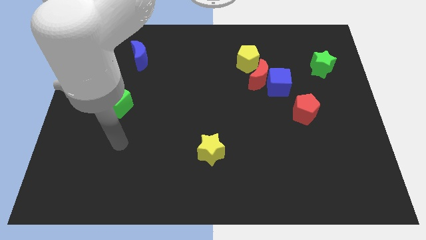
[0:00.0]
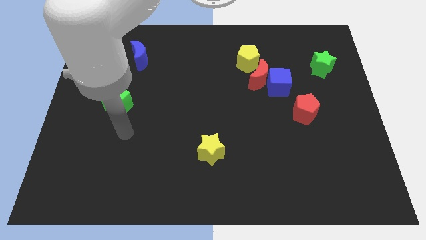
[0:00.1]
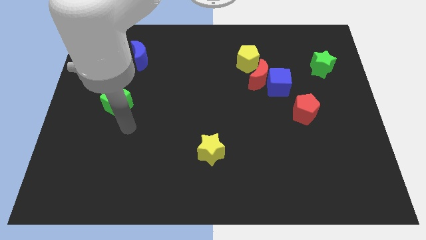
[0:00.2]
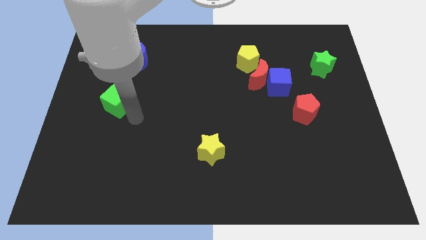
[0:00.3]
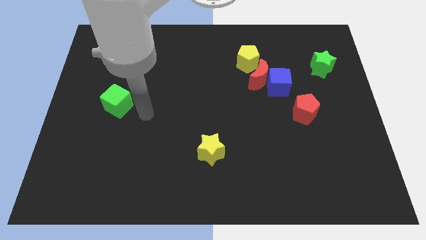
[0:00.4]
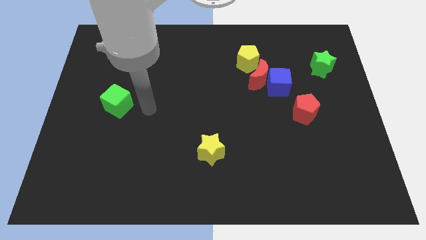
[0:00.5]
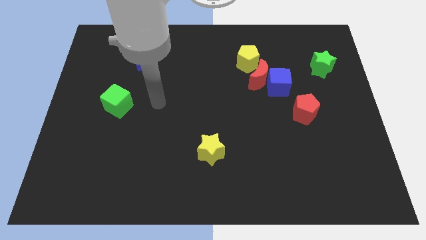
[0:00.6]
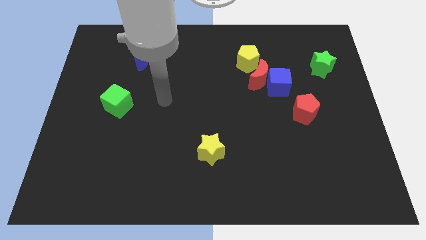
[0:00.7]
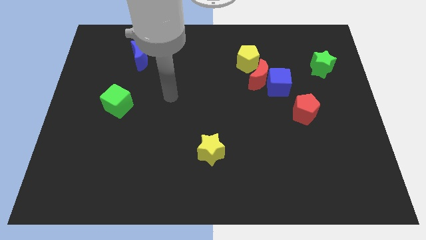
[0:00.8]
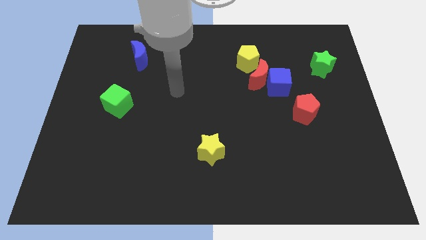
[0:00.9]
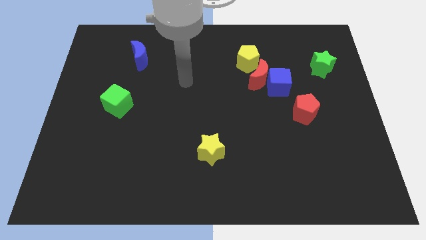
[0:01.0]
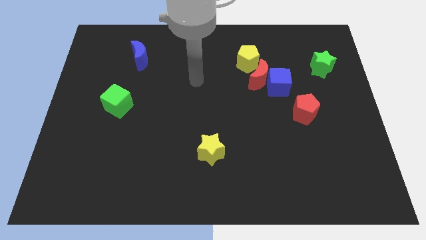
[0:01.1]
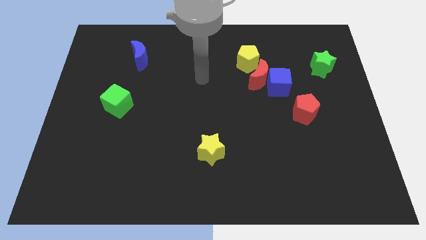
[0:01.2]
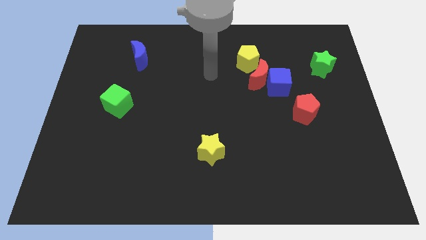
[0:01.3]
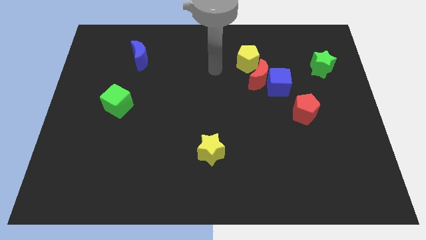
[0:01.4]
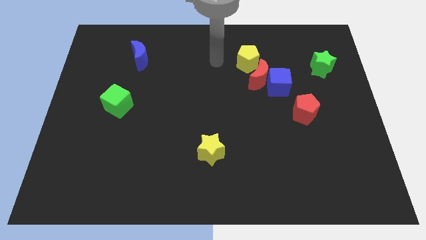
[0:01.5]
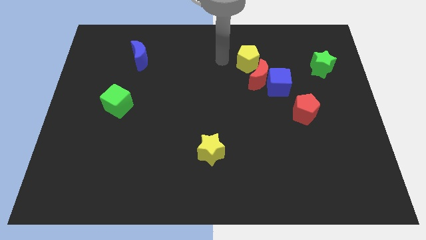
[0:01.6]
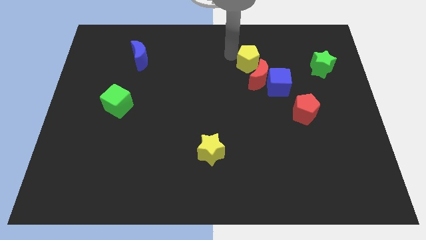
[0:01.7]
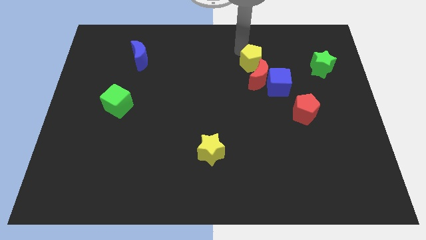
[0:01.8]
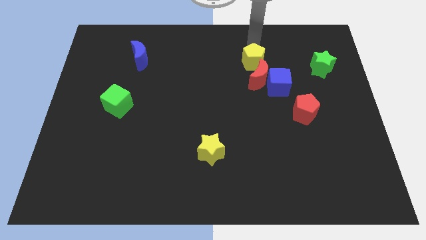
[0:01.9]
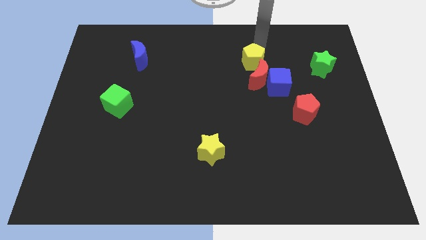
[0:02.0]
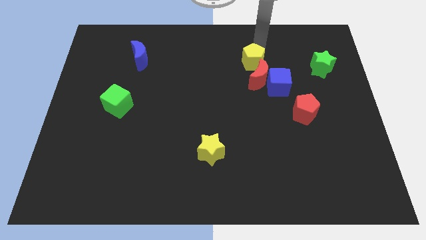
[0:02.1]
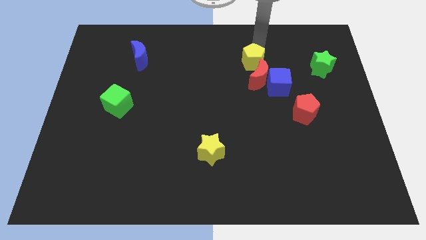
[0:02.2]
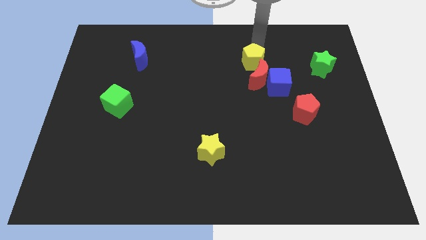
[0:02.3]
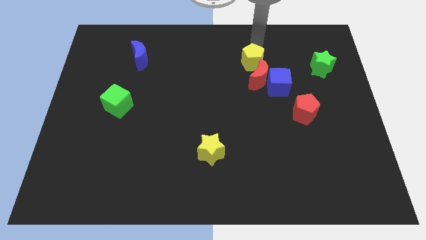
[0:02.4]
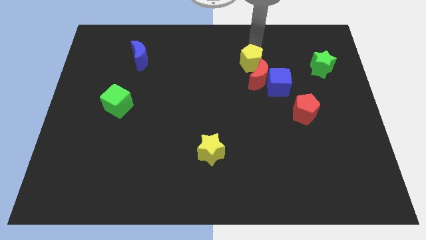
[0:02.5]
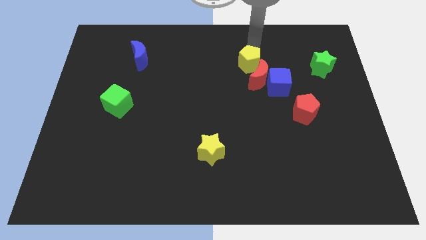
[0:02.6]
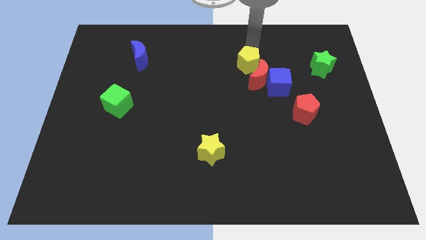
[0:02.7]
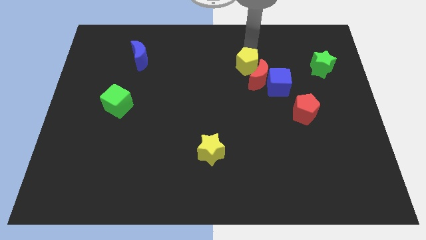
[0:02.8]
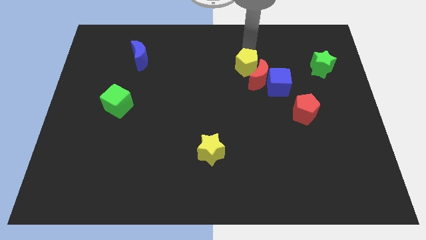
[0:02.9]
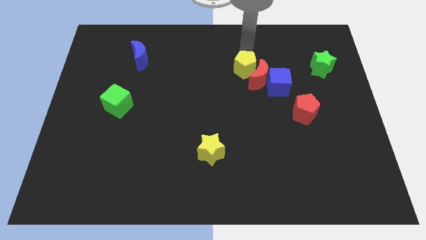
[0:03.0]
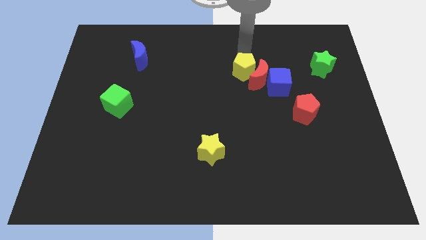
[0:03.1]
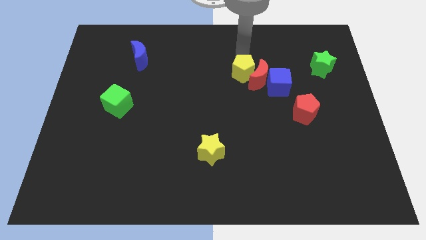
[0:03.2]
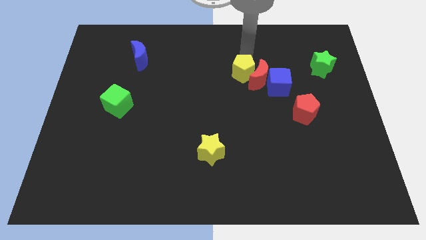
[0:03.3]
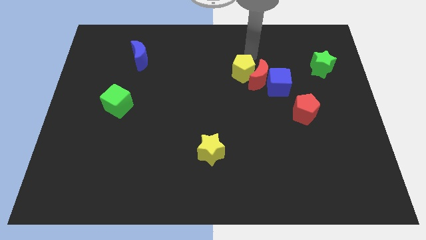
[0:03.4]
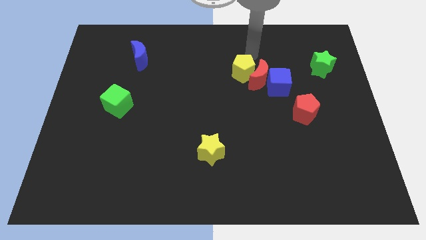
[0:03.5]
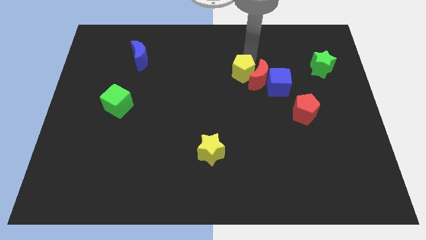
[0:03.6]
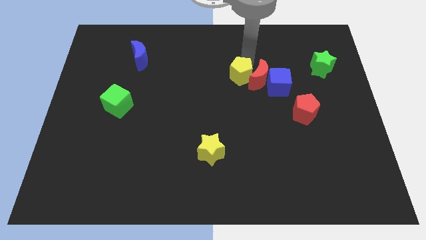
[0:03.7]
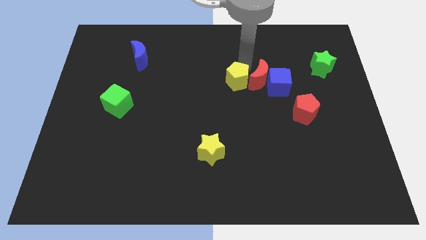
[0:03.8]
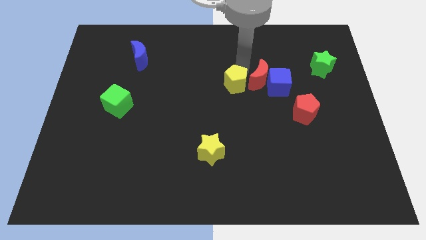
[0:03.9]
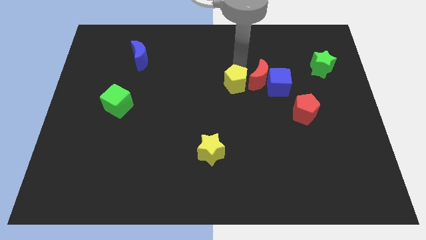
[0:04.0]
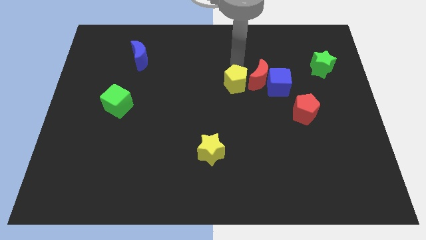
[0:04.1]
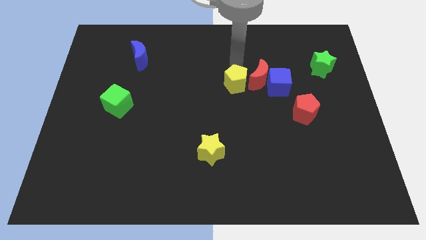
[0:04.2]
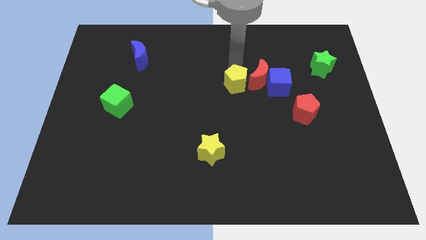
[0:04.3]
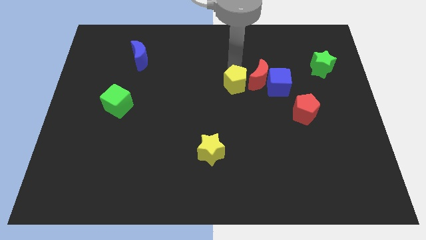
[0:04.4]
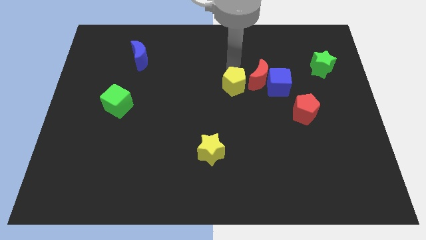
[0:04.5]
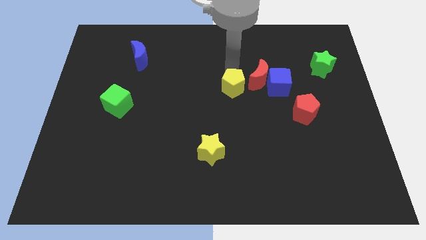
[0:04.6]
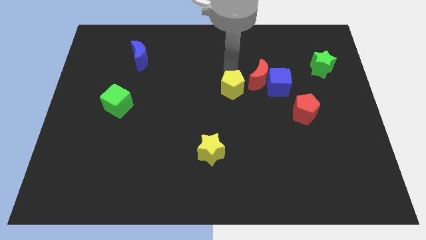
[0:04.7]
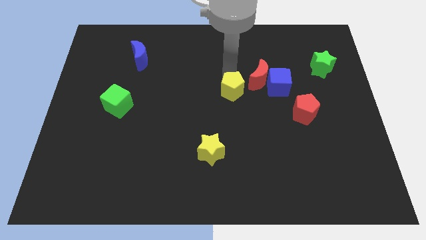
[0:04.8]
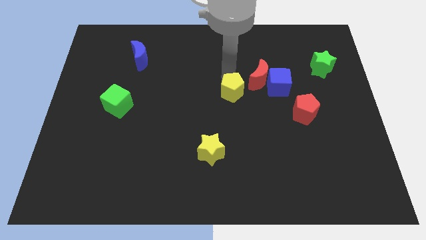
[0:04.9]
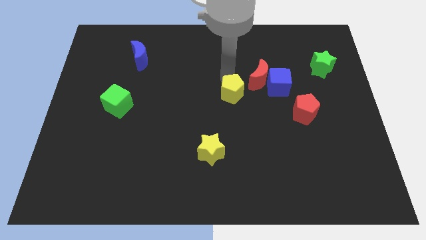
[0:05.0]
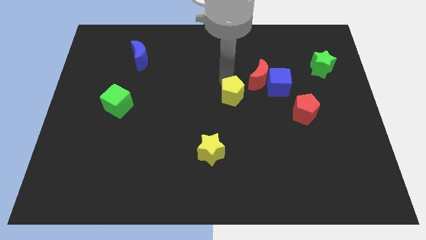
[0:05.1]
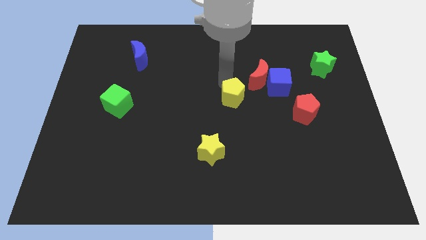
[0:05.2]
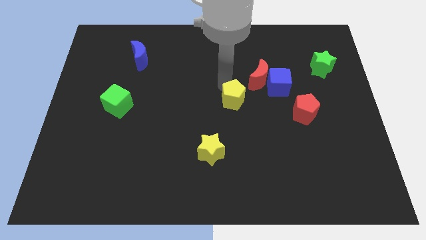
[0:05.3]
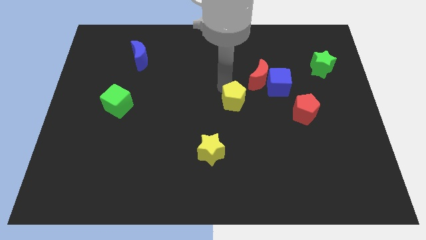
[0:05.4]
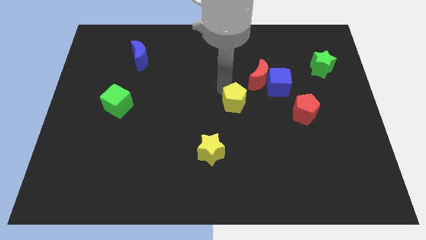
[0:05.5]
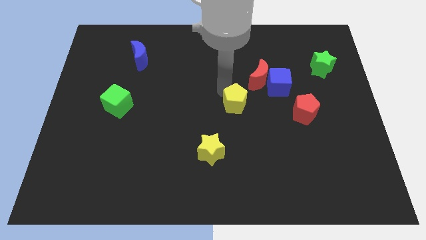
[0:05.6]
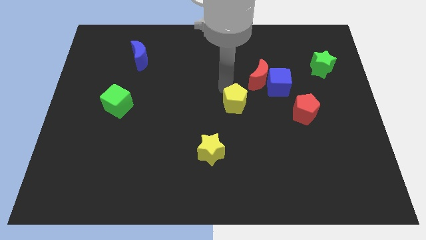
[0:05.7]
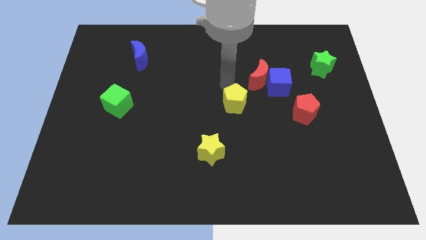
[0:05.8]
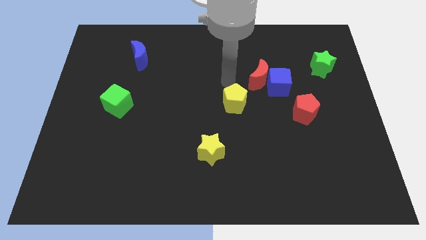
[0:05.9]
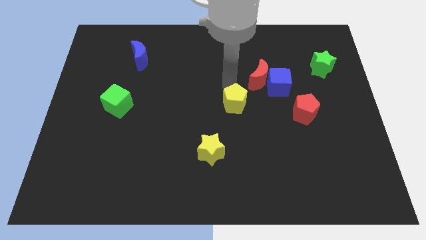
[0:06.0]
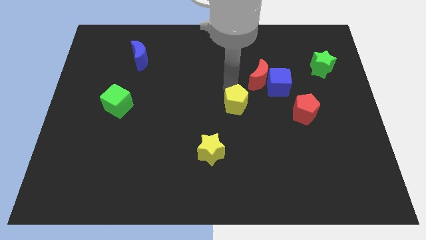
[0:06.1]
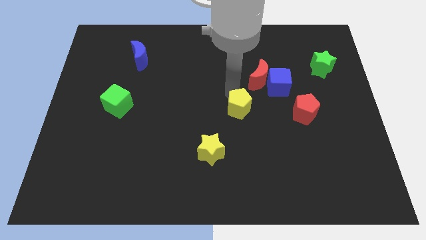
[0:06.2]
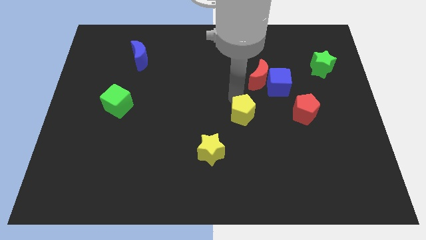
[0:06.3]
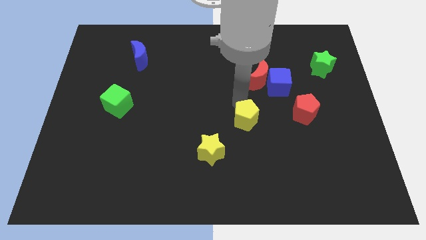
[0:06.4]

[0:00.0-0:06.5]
push the yellow pentagon diagonally up and to the right of the yellow star

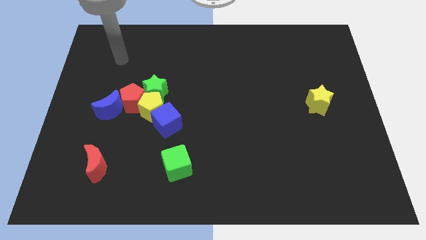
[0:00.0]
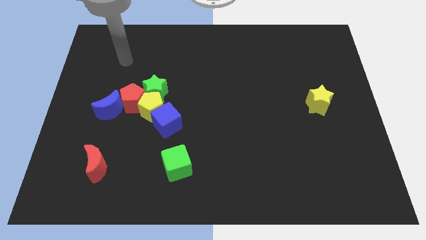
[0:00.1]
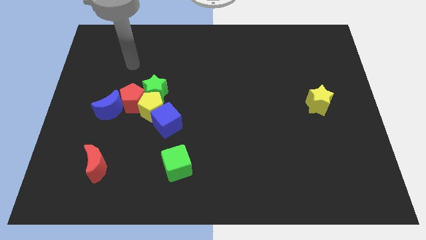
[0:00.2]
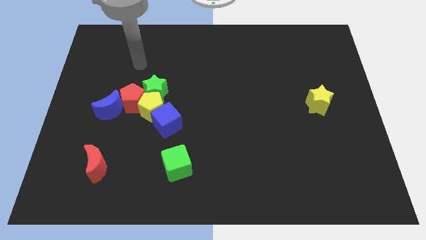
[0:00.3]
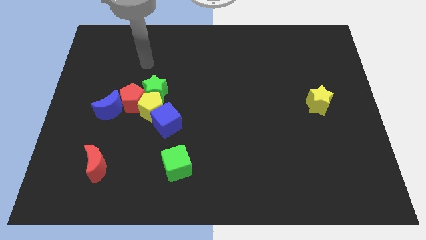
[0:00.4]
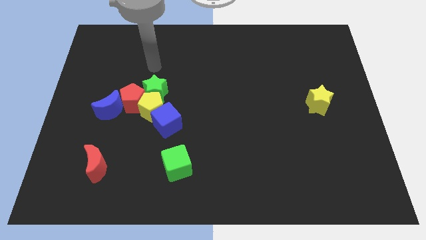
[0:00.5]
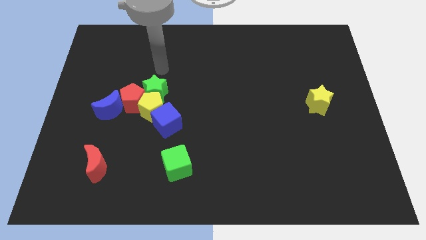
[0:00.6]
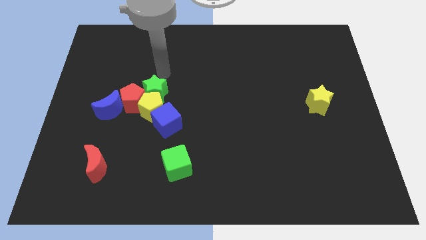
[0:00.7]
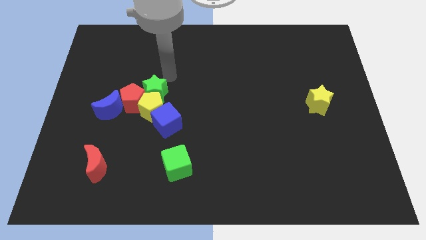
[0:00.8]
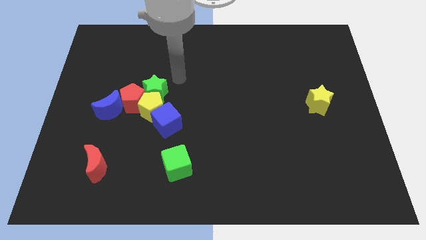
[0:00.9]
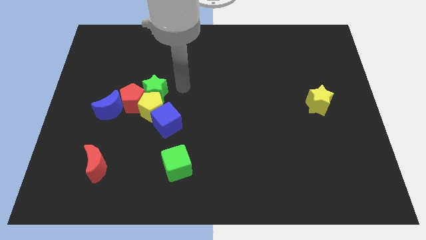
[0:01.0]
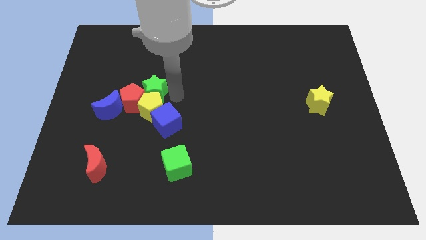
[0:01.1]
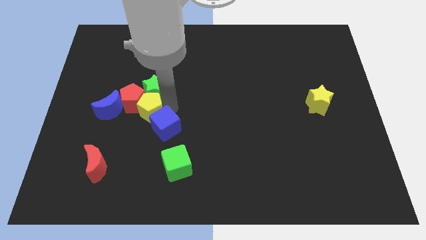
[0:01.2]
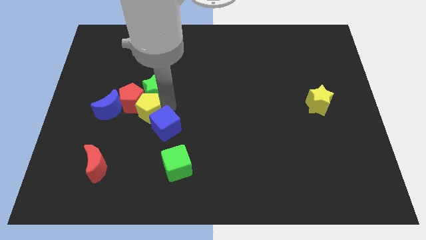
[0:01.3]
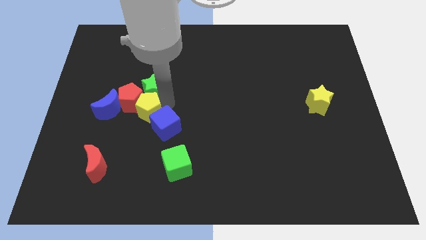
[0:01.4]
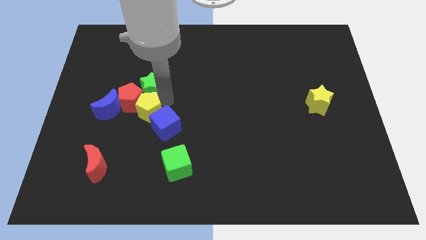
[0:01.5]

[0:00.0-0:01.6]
push the green star to the top side of the red pentagon
